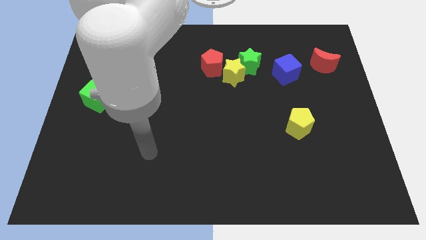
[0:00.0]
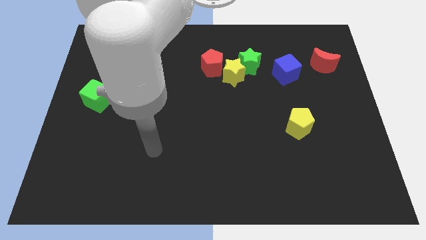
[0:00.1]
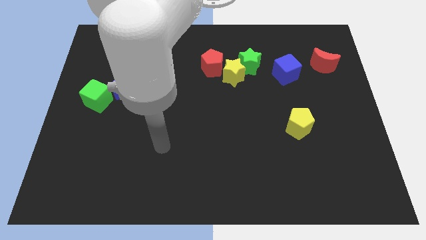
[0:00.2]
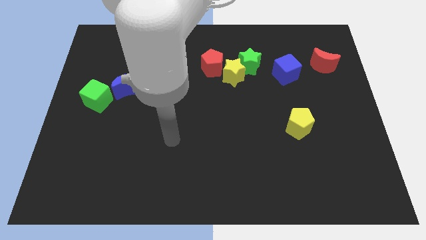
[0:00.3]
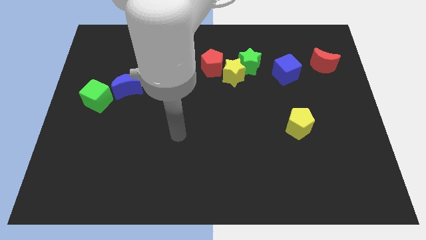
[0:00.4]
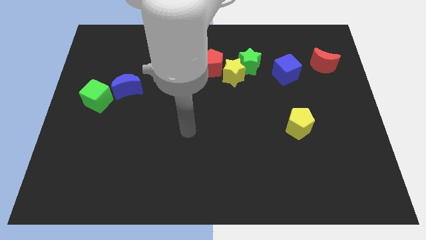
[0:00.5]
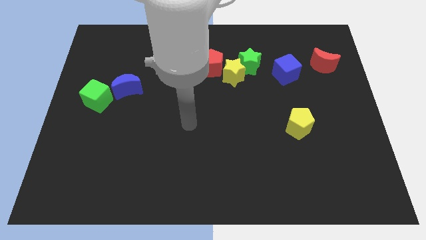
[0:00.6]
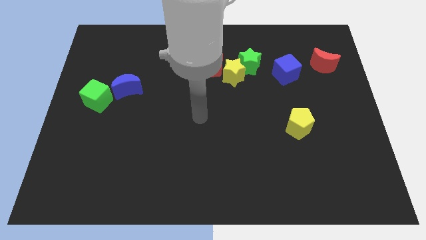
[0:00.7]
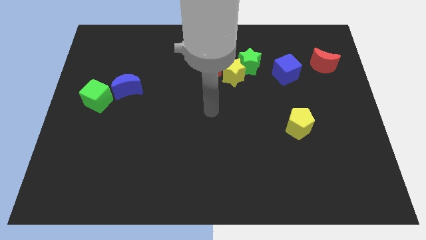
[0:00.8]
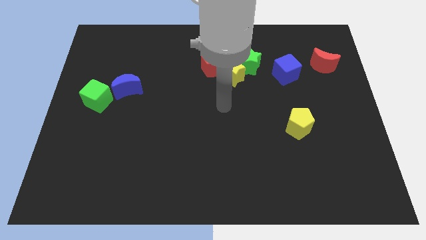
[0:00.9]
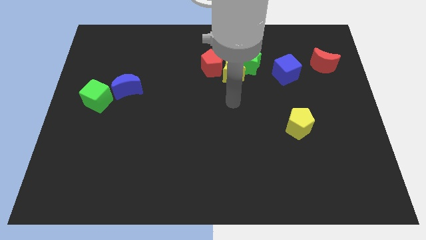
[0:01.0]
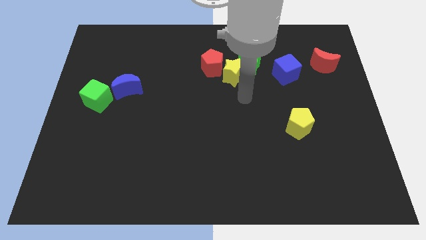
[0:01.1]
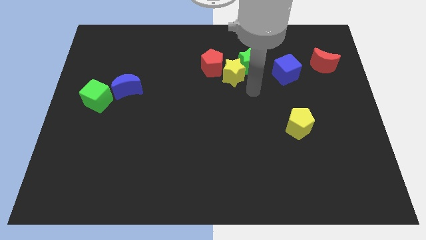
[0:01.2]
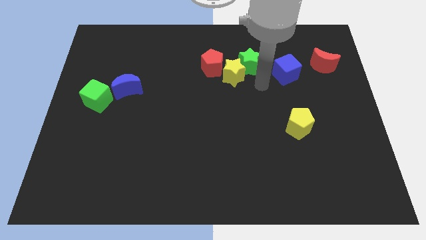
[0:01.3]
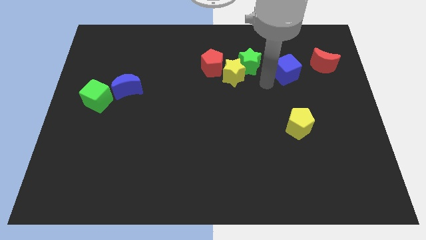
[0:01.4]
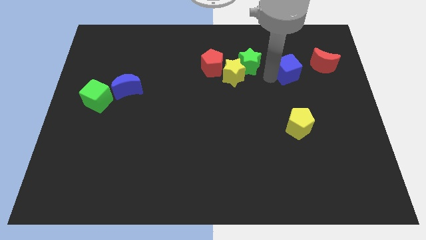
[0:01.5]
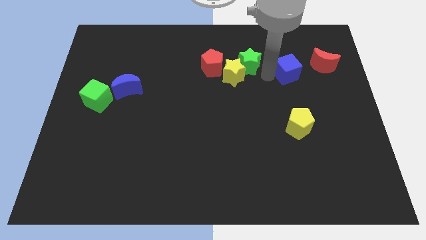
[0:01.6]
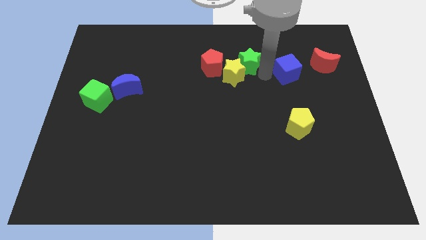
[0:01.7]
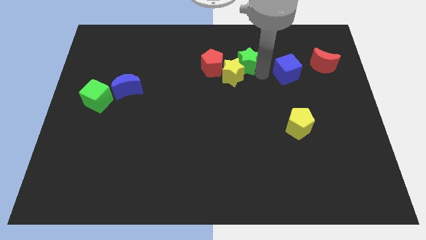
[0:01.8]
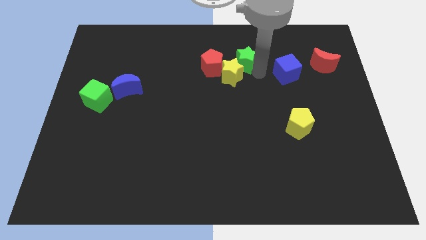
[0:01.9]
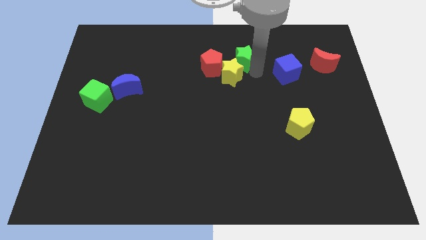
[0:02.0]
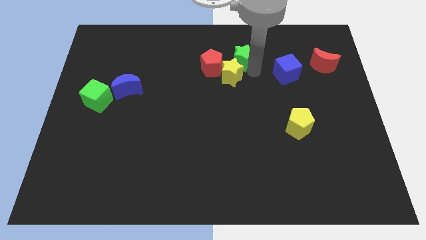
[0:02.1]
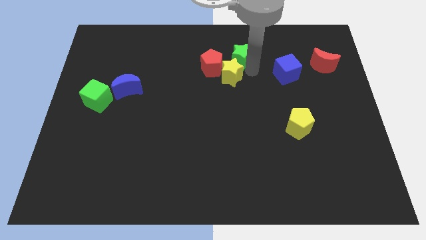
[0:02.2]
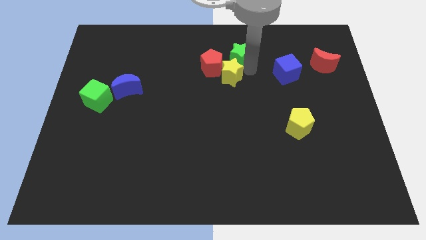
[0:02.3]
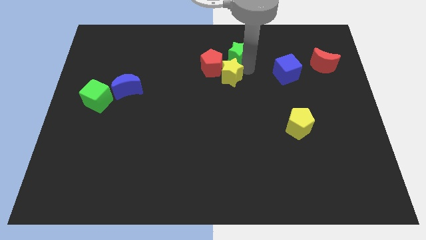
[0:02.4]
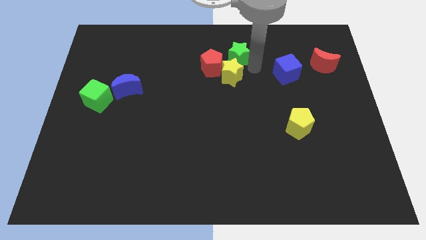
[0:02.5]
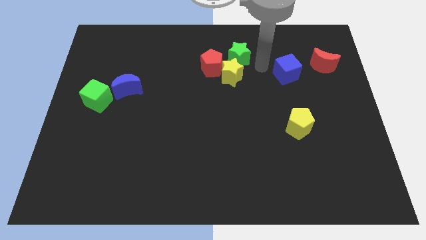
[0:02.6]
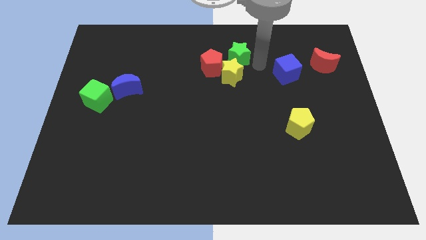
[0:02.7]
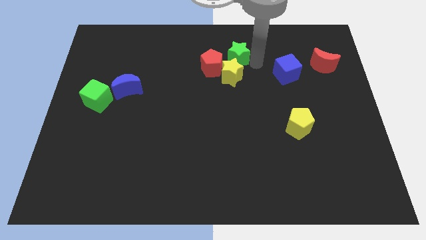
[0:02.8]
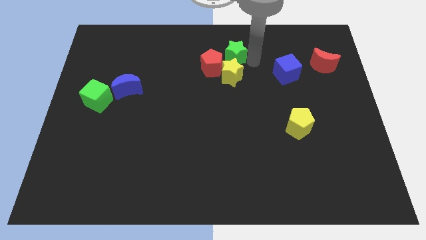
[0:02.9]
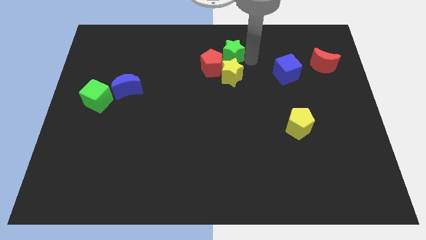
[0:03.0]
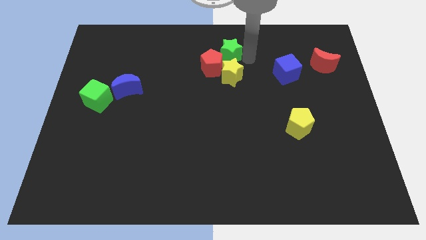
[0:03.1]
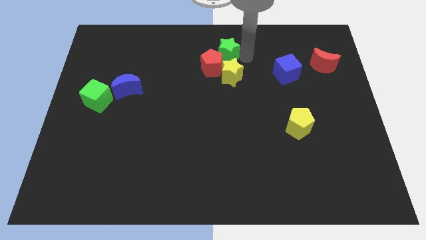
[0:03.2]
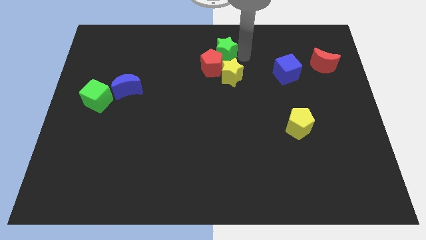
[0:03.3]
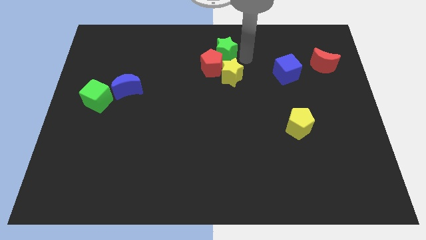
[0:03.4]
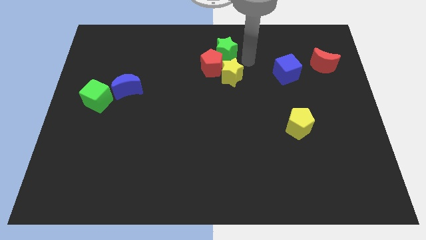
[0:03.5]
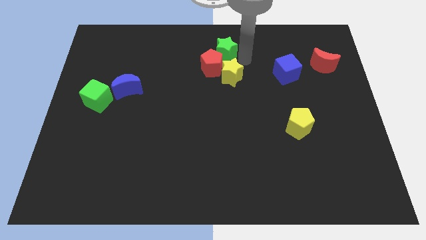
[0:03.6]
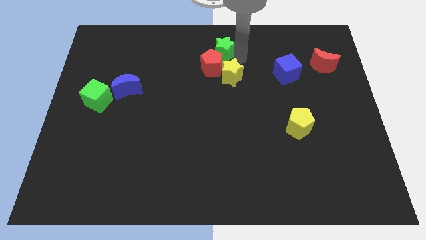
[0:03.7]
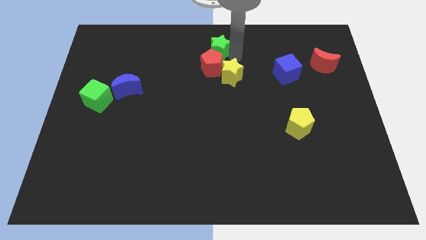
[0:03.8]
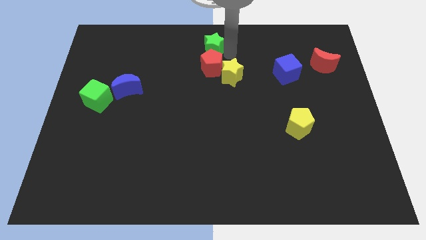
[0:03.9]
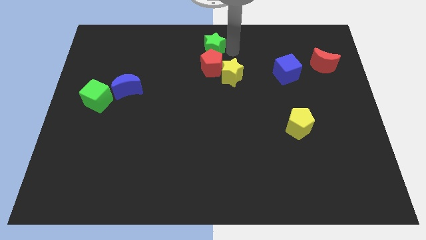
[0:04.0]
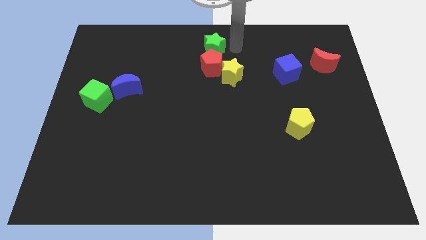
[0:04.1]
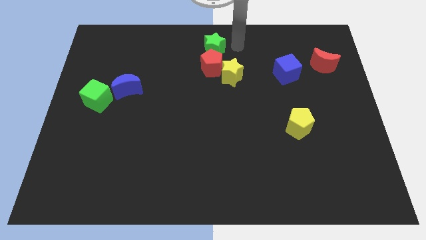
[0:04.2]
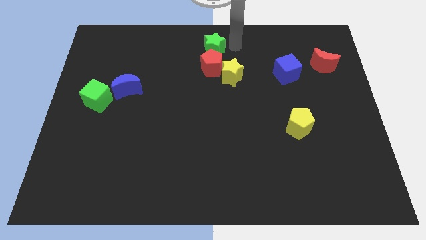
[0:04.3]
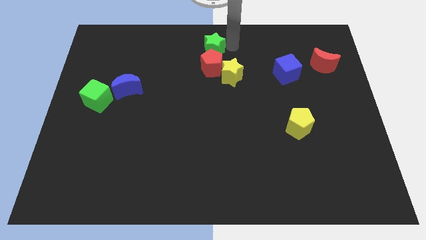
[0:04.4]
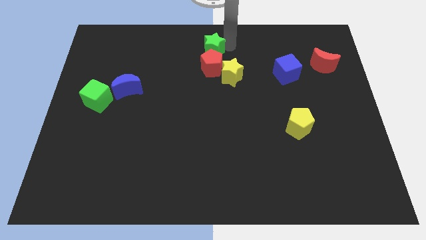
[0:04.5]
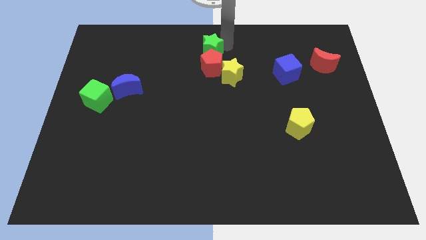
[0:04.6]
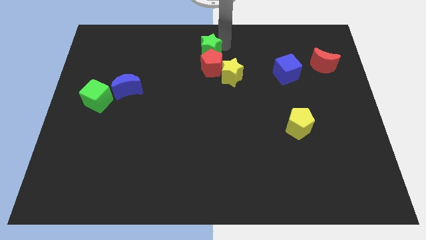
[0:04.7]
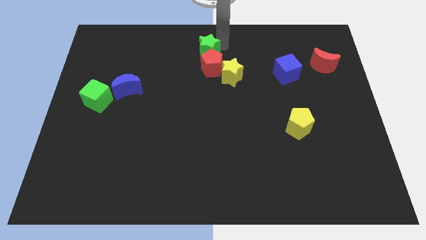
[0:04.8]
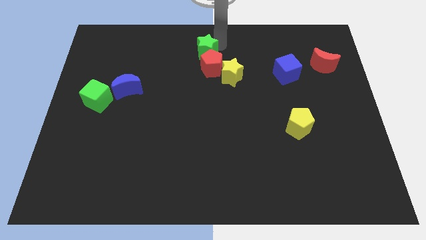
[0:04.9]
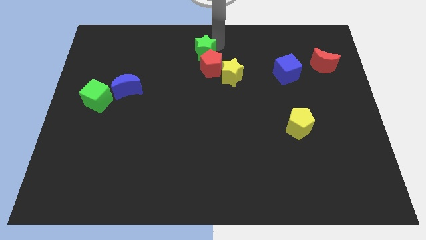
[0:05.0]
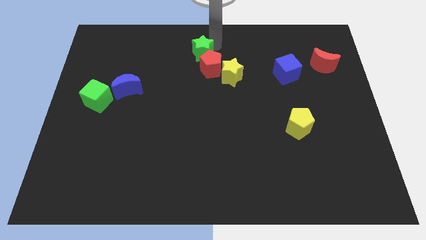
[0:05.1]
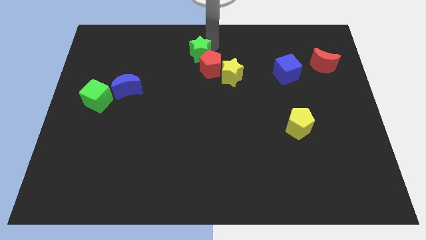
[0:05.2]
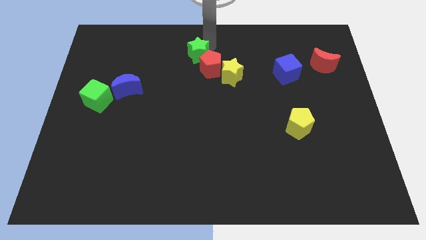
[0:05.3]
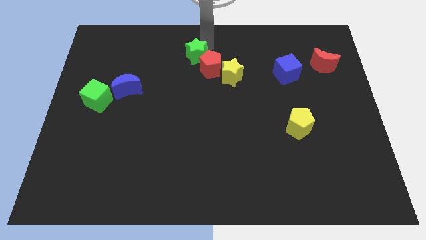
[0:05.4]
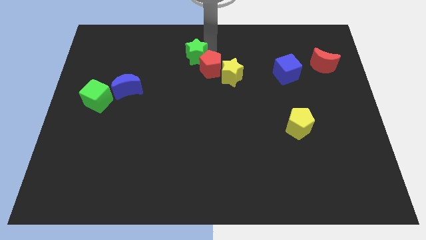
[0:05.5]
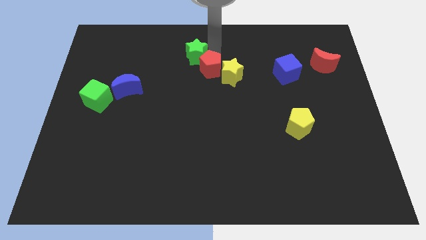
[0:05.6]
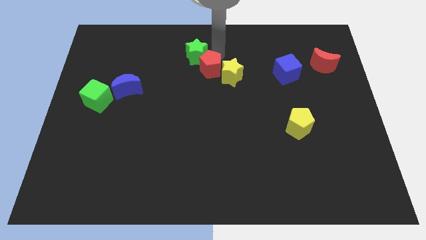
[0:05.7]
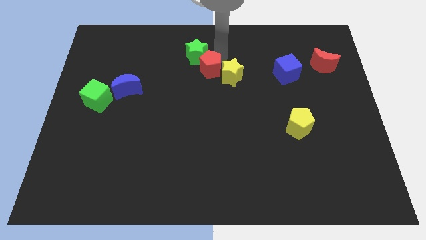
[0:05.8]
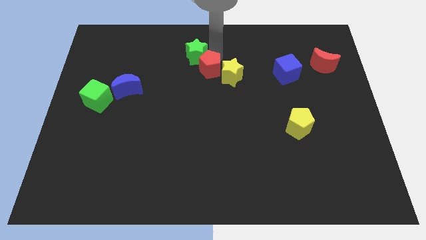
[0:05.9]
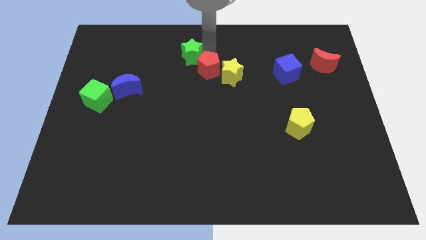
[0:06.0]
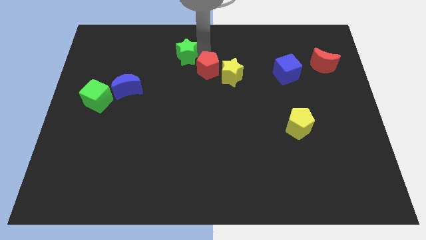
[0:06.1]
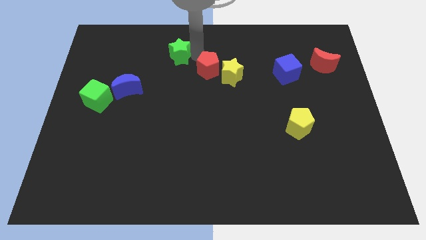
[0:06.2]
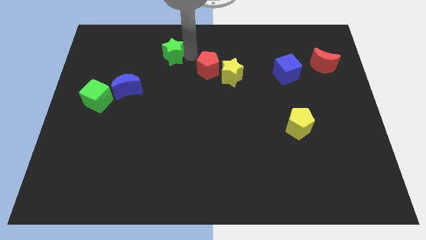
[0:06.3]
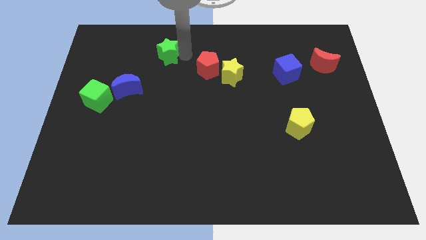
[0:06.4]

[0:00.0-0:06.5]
push the green star to the left

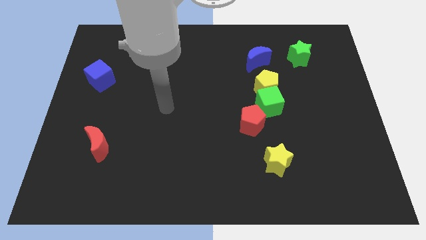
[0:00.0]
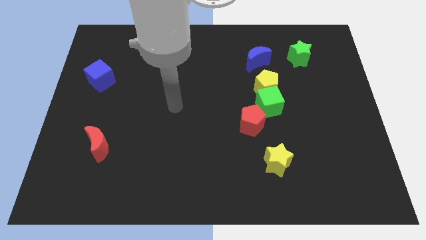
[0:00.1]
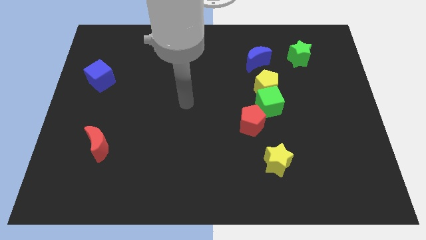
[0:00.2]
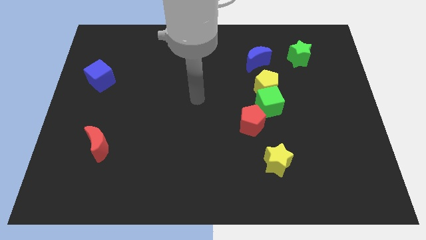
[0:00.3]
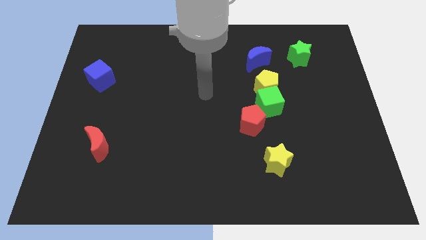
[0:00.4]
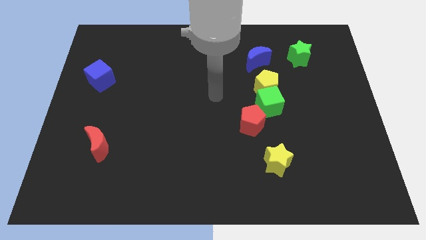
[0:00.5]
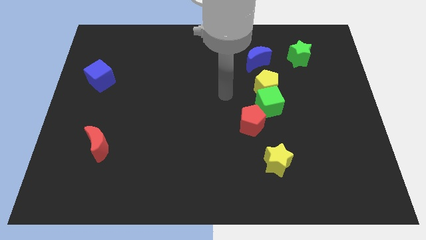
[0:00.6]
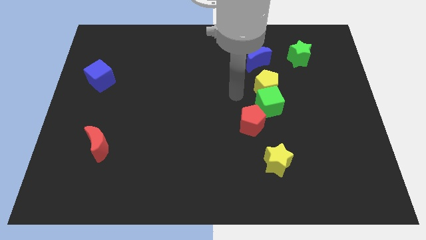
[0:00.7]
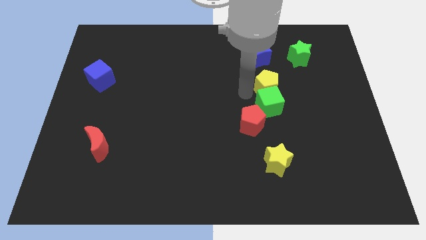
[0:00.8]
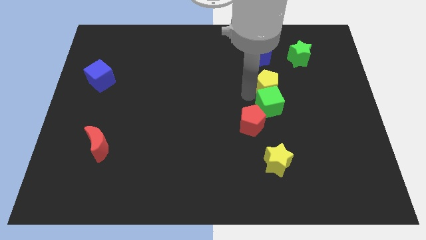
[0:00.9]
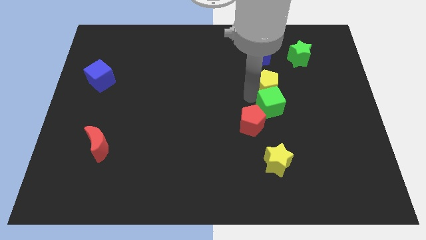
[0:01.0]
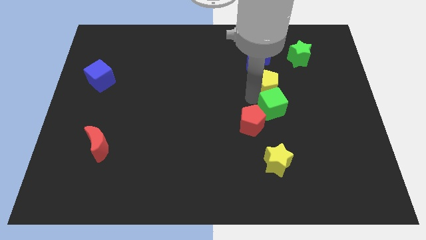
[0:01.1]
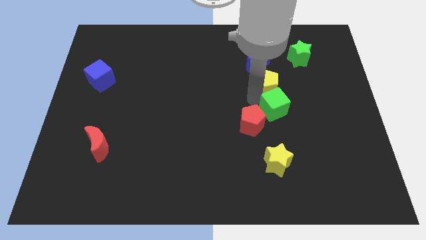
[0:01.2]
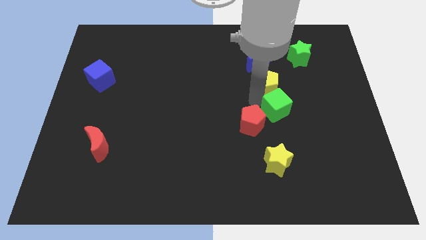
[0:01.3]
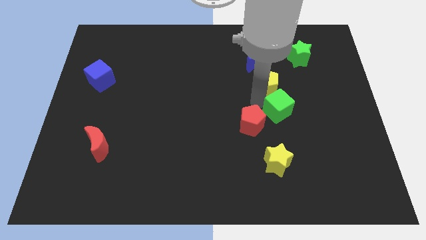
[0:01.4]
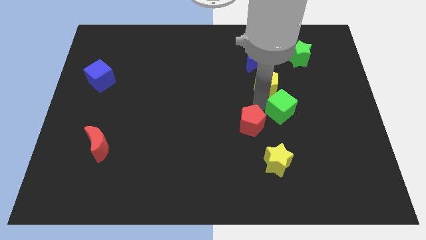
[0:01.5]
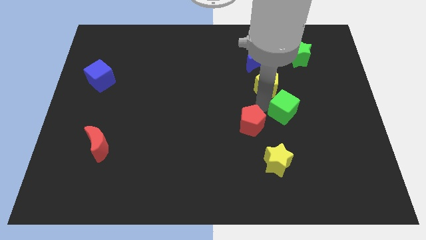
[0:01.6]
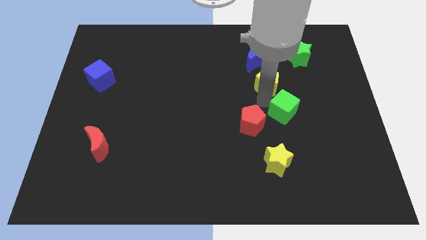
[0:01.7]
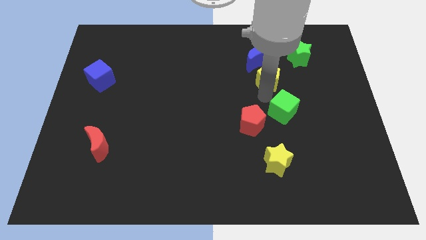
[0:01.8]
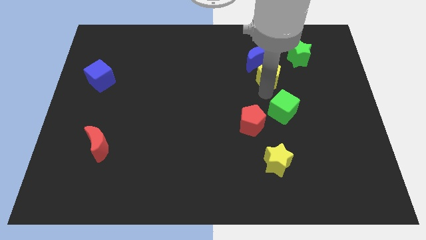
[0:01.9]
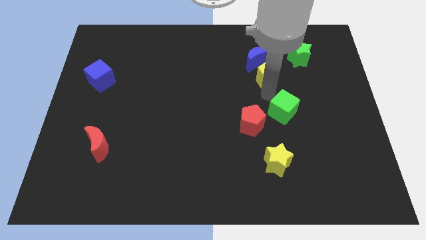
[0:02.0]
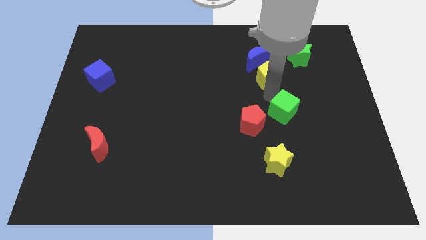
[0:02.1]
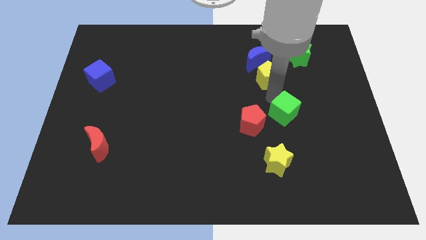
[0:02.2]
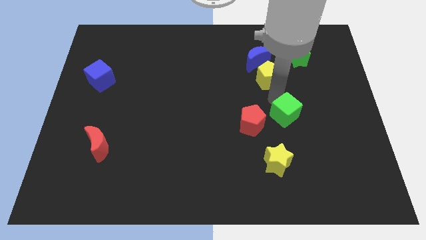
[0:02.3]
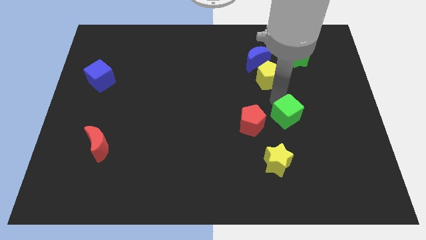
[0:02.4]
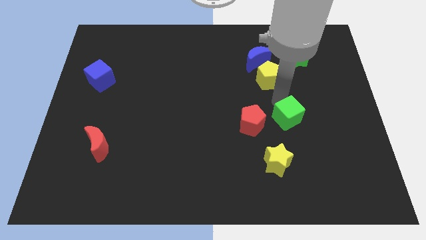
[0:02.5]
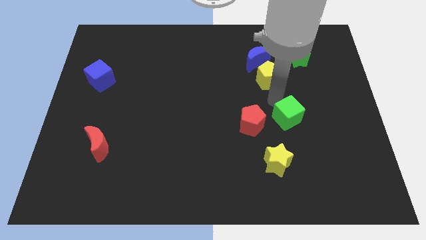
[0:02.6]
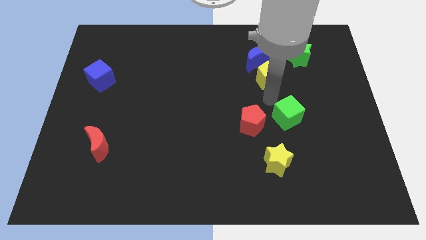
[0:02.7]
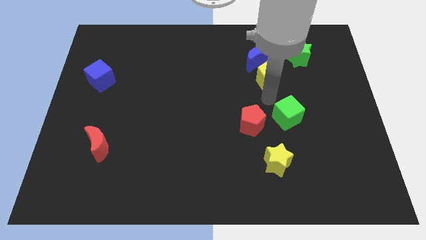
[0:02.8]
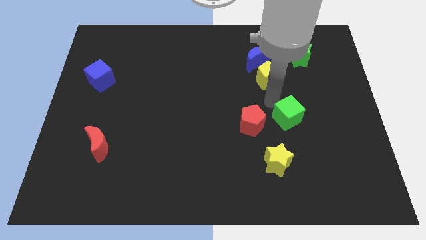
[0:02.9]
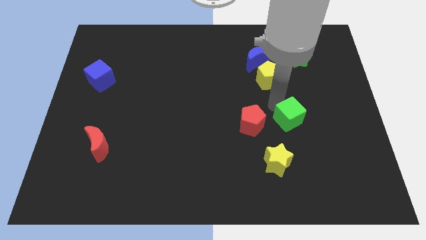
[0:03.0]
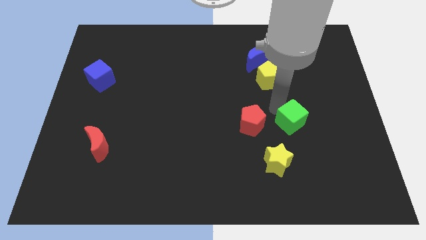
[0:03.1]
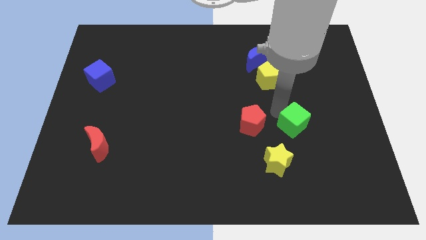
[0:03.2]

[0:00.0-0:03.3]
move the green cube slightly down and to the right
